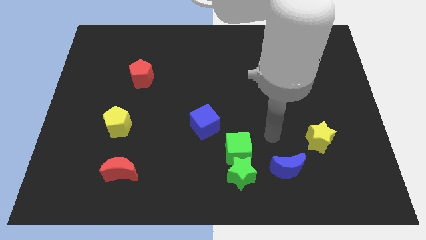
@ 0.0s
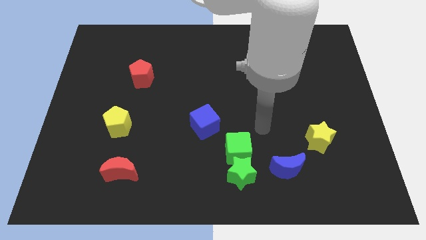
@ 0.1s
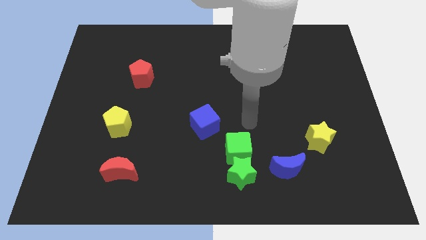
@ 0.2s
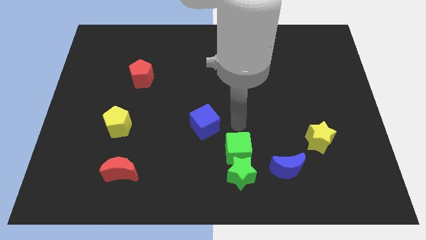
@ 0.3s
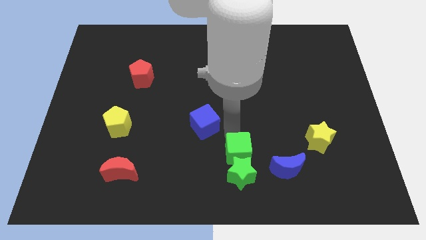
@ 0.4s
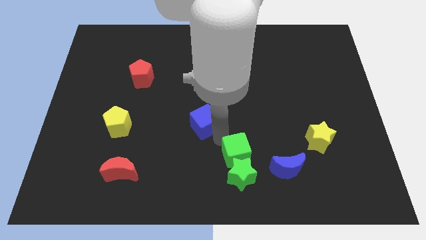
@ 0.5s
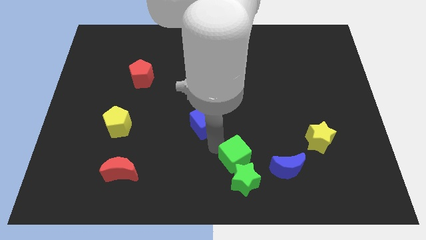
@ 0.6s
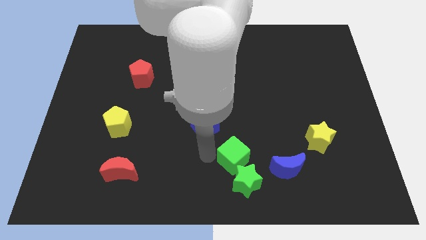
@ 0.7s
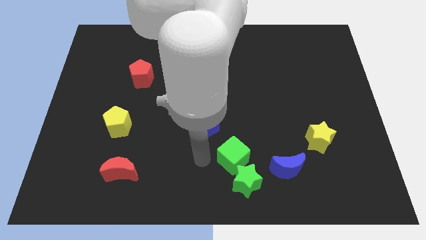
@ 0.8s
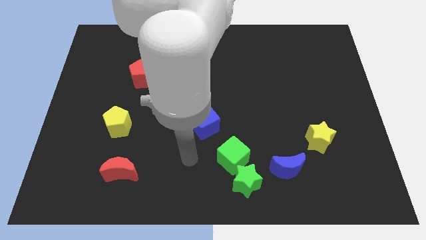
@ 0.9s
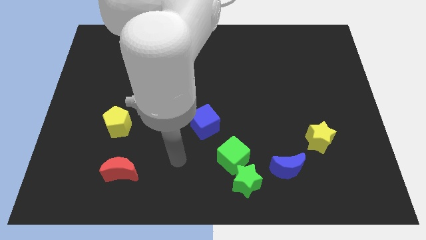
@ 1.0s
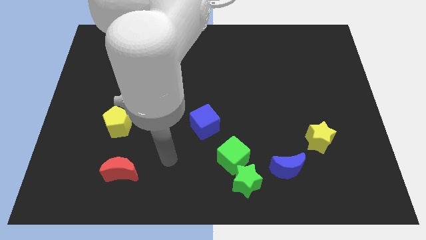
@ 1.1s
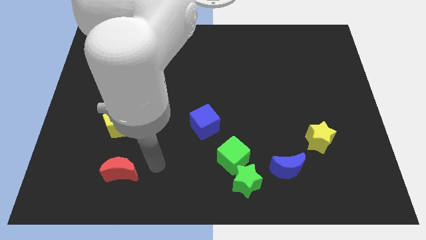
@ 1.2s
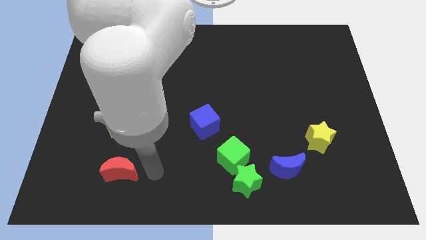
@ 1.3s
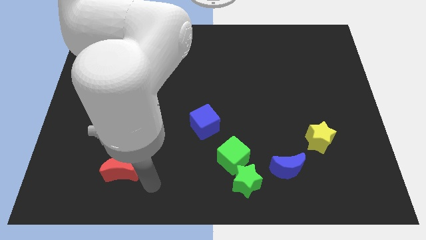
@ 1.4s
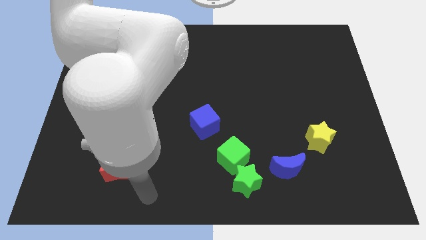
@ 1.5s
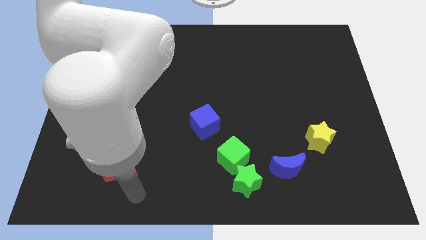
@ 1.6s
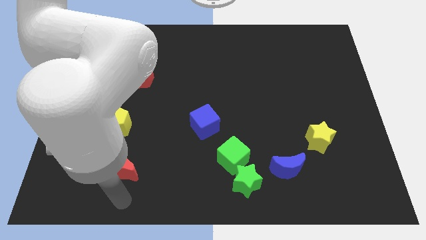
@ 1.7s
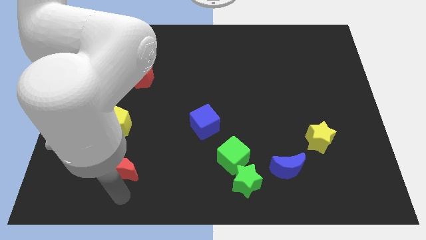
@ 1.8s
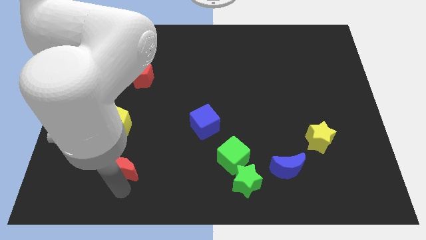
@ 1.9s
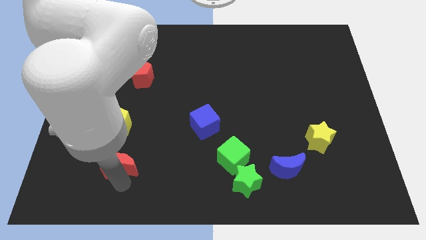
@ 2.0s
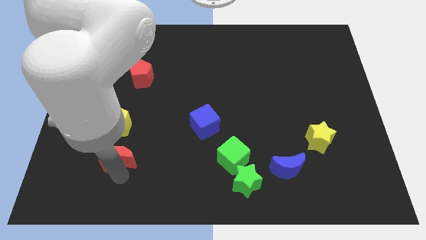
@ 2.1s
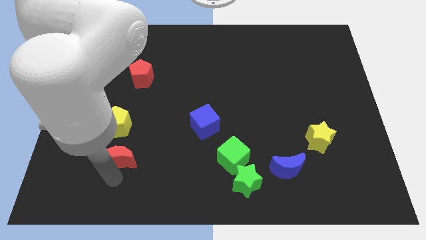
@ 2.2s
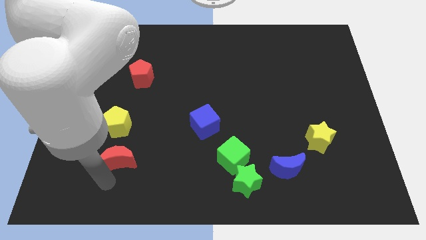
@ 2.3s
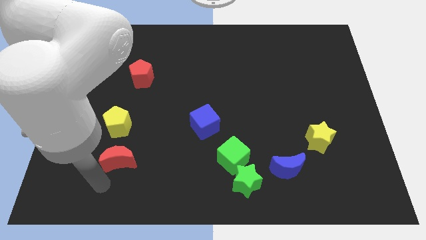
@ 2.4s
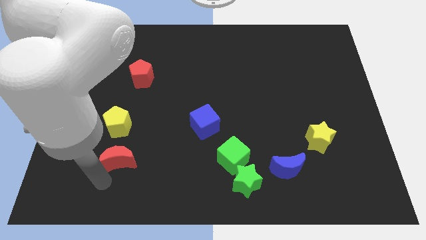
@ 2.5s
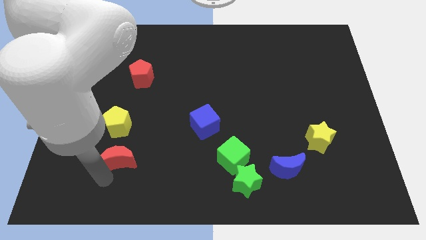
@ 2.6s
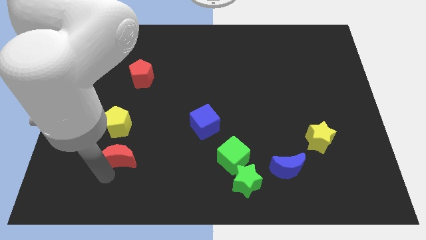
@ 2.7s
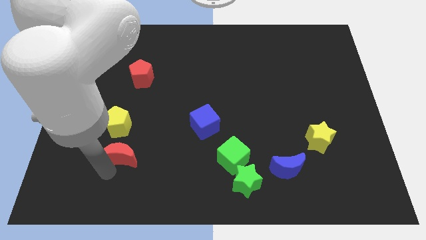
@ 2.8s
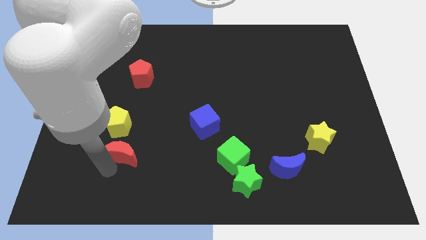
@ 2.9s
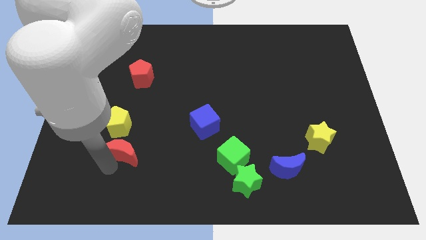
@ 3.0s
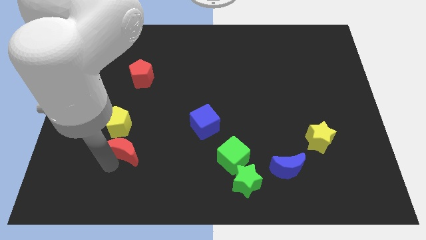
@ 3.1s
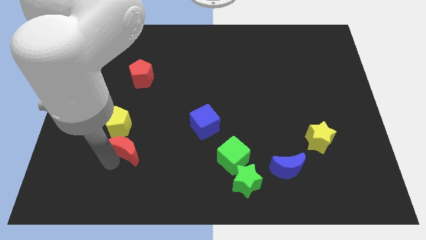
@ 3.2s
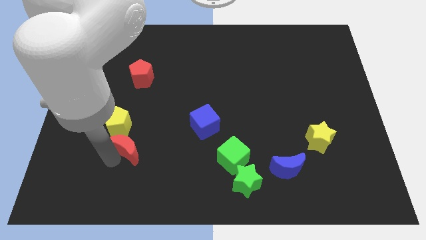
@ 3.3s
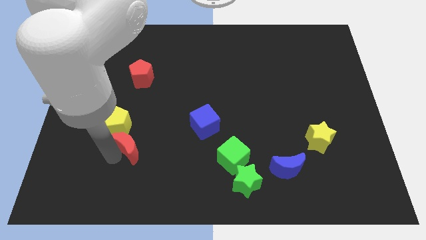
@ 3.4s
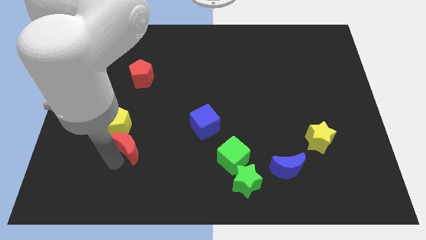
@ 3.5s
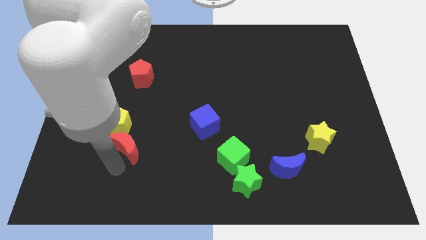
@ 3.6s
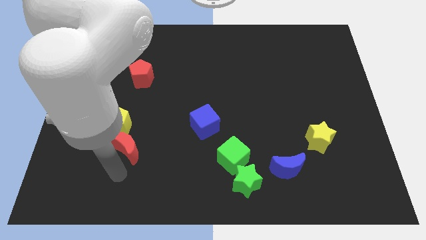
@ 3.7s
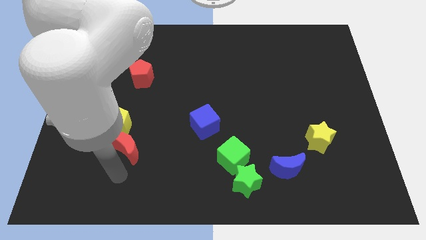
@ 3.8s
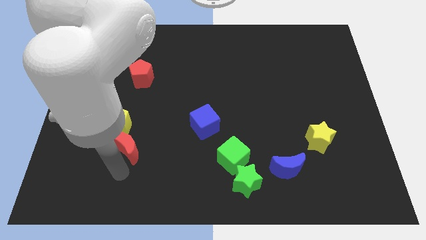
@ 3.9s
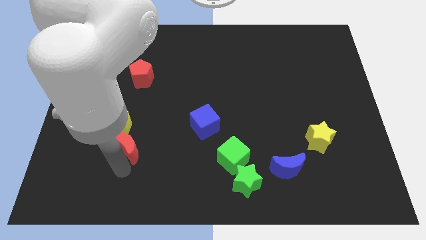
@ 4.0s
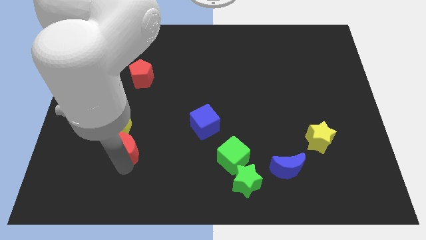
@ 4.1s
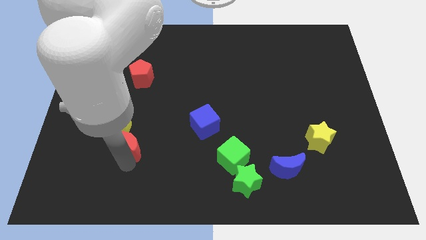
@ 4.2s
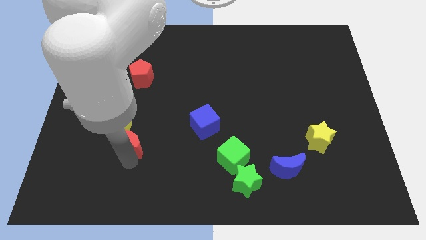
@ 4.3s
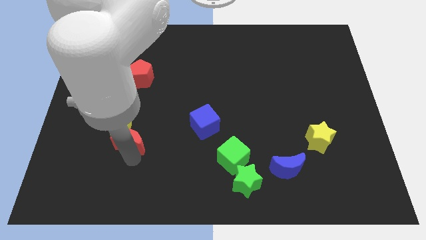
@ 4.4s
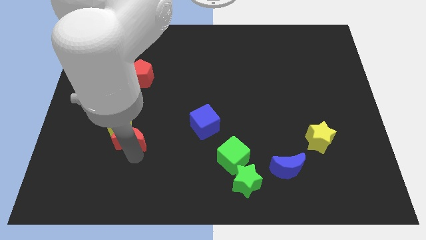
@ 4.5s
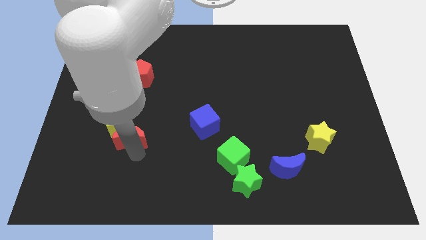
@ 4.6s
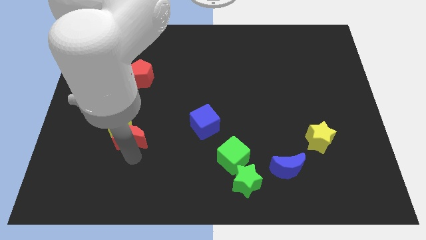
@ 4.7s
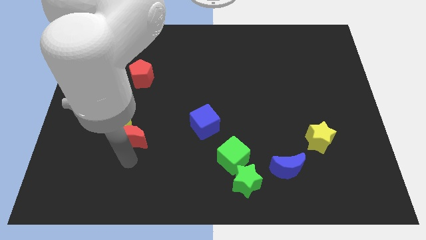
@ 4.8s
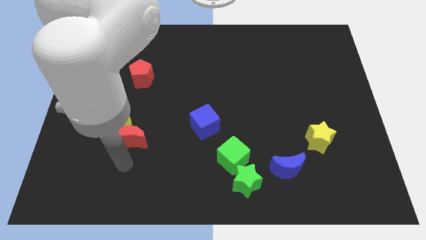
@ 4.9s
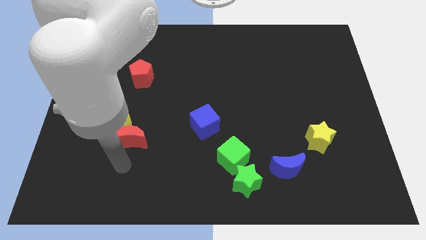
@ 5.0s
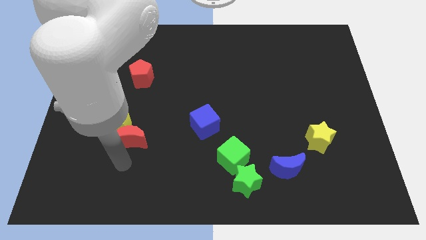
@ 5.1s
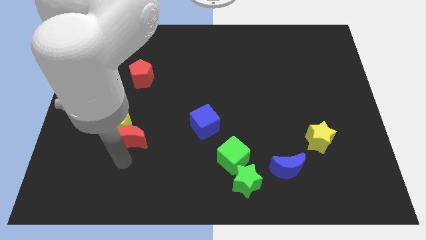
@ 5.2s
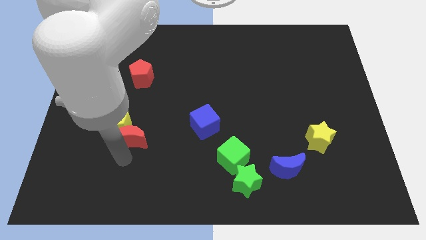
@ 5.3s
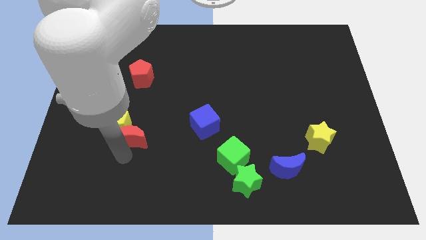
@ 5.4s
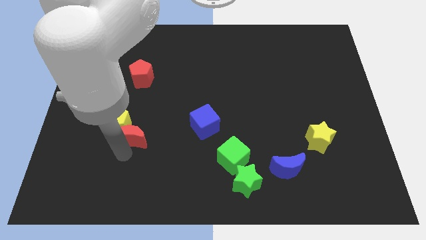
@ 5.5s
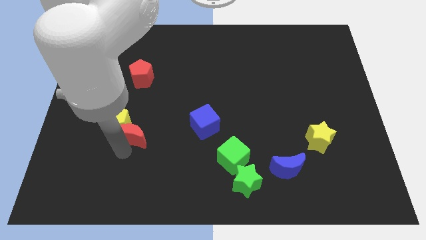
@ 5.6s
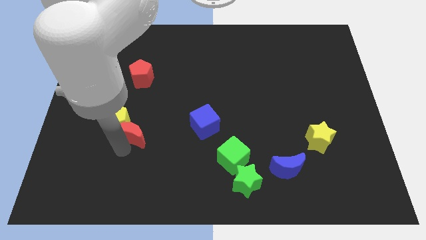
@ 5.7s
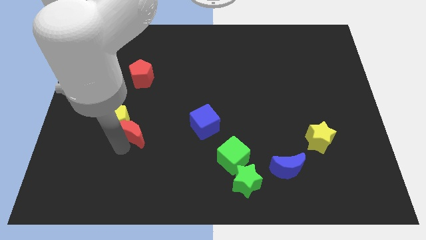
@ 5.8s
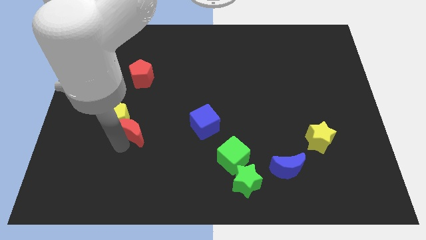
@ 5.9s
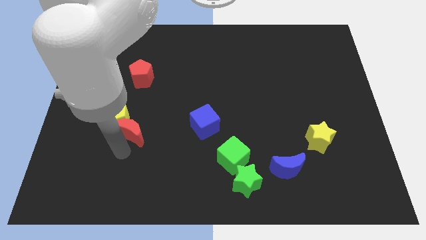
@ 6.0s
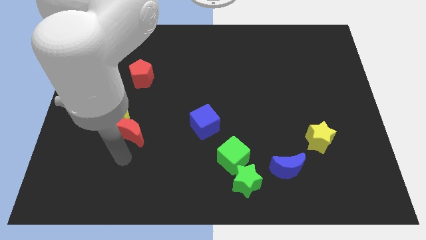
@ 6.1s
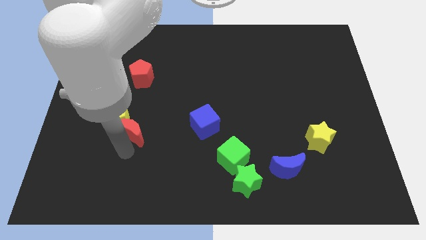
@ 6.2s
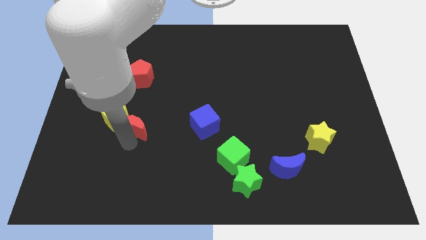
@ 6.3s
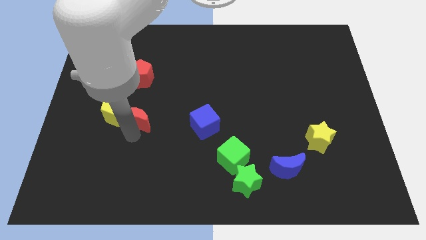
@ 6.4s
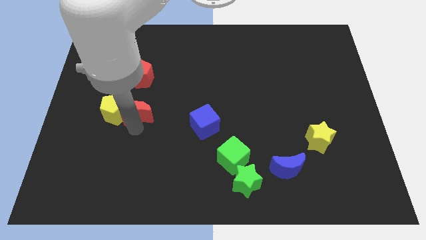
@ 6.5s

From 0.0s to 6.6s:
push the red moon to the top right side of the yellow pentagon
